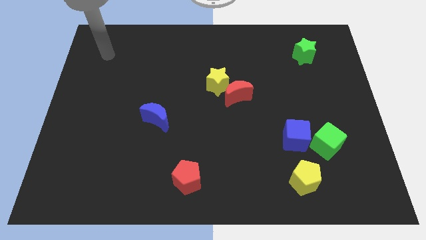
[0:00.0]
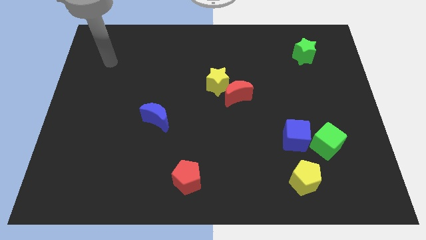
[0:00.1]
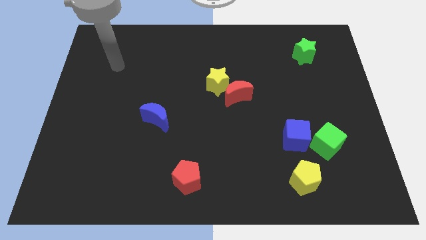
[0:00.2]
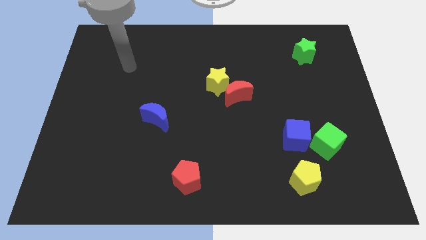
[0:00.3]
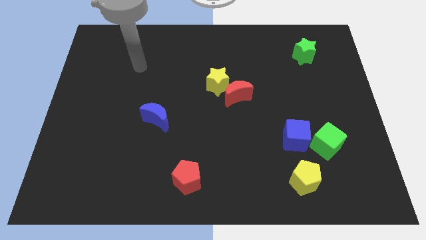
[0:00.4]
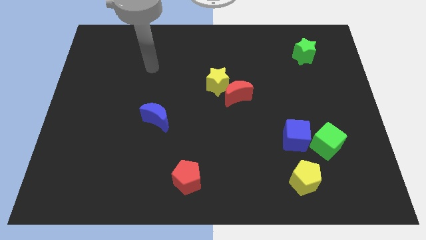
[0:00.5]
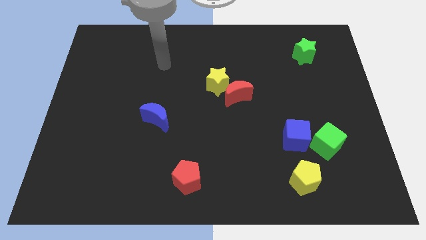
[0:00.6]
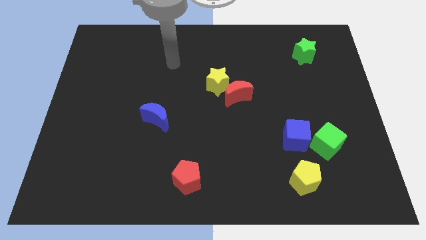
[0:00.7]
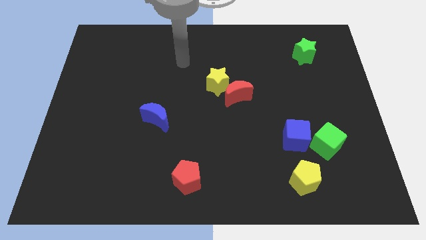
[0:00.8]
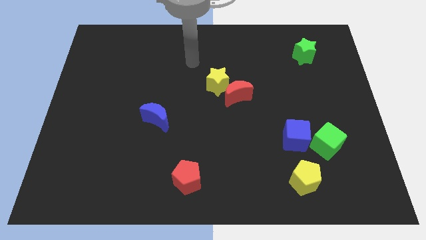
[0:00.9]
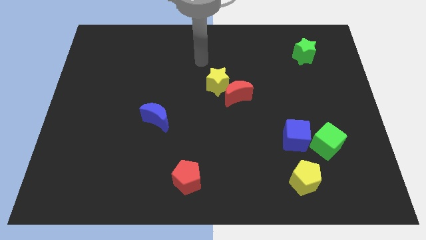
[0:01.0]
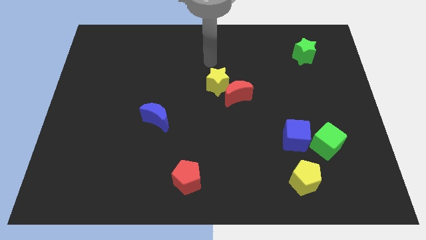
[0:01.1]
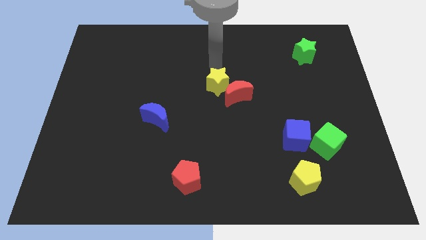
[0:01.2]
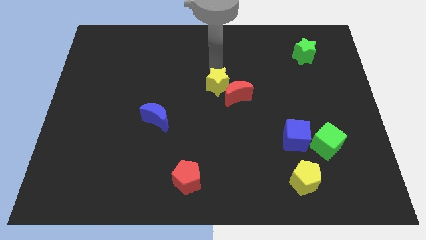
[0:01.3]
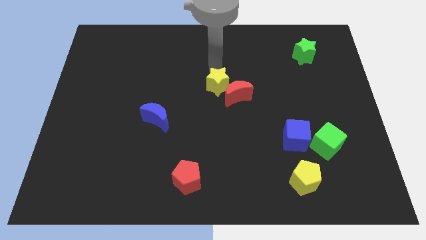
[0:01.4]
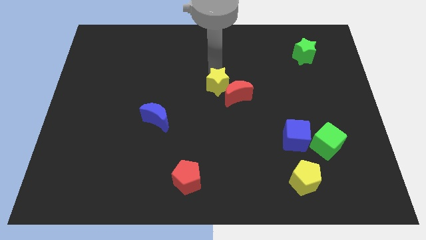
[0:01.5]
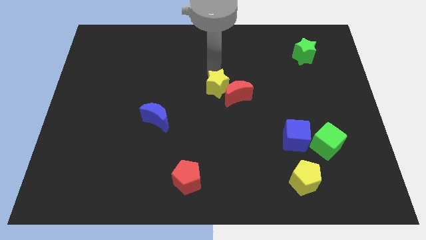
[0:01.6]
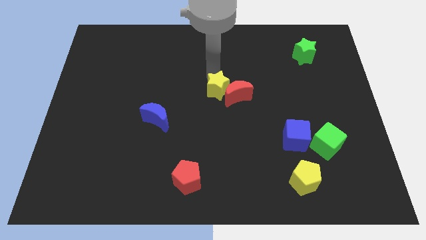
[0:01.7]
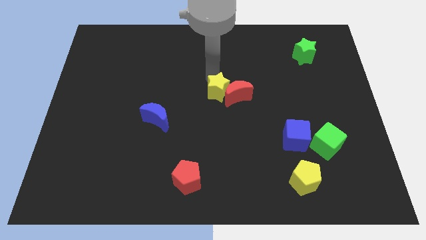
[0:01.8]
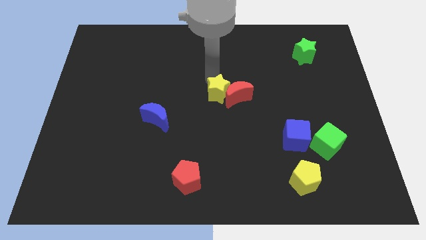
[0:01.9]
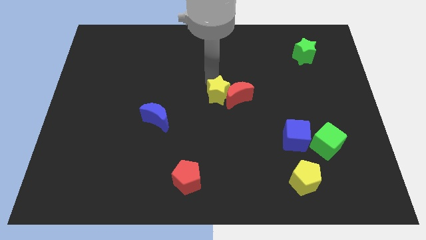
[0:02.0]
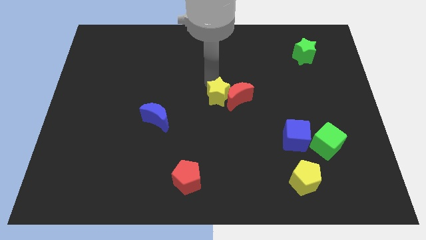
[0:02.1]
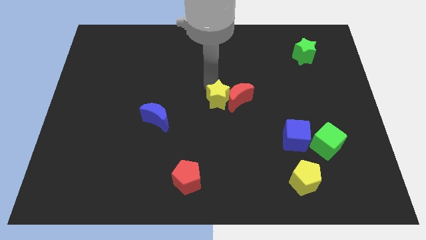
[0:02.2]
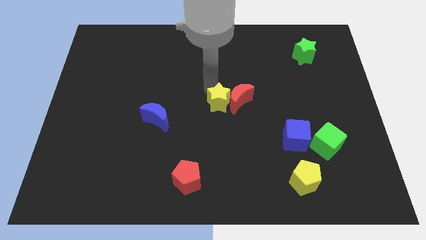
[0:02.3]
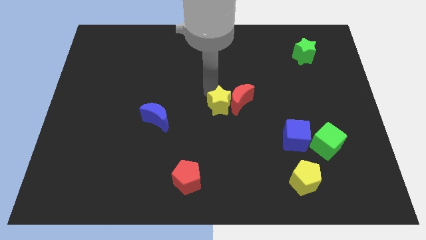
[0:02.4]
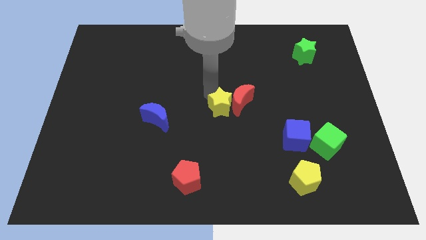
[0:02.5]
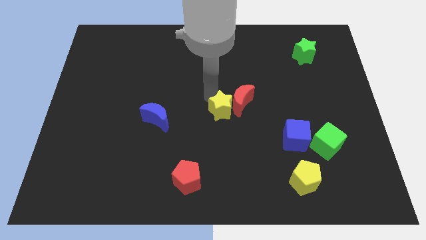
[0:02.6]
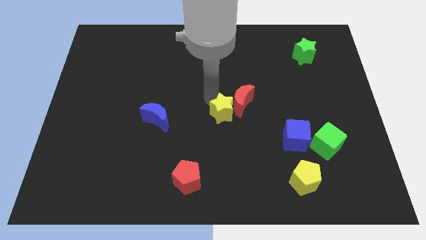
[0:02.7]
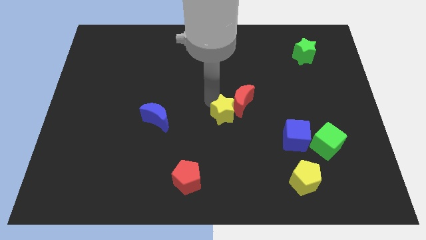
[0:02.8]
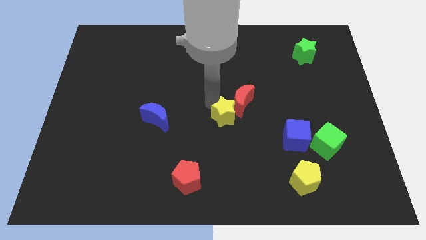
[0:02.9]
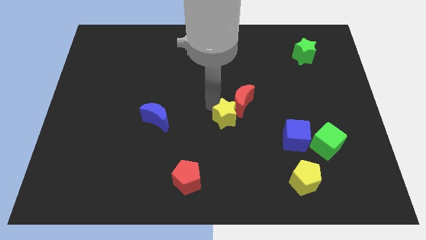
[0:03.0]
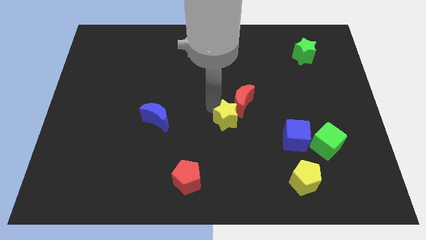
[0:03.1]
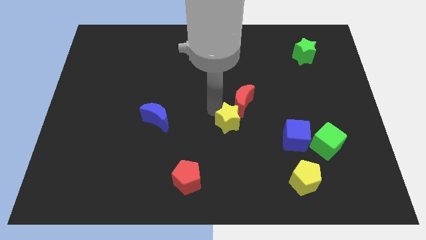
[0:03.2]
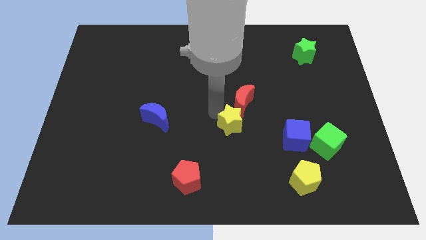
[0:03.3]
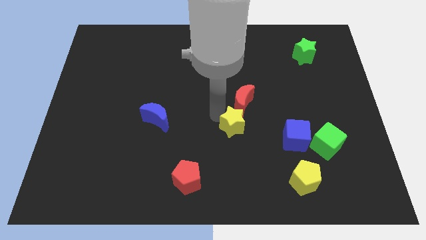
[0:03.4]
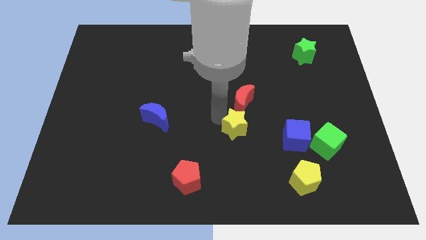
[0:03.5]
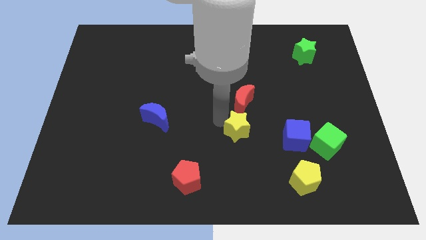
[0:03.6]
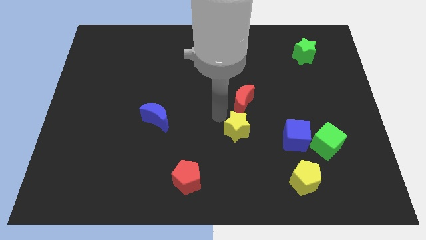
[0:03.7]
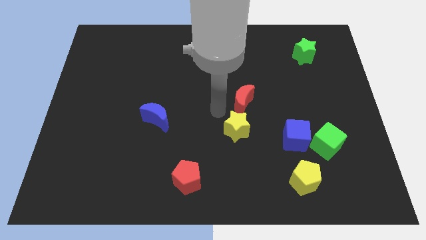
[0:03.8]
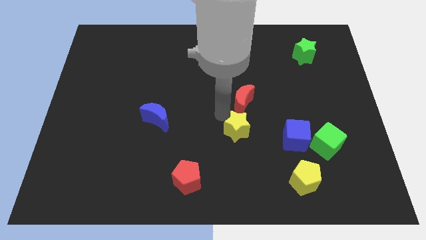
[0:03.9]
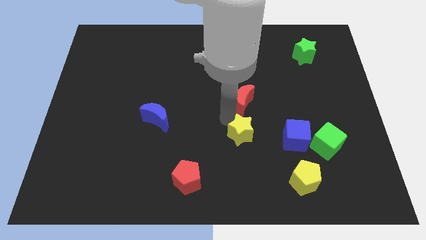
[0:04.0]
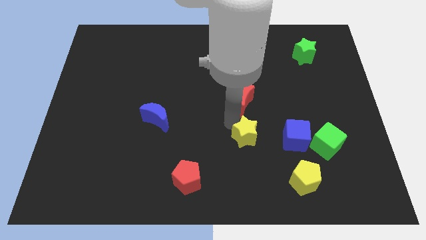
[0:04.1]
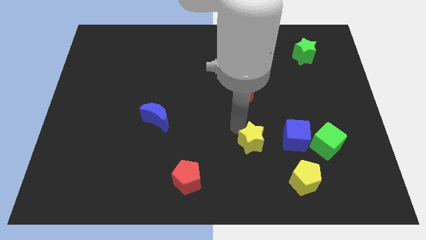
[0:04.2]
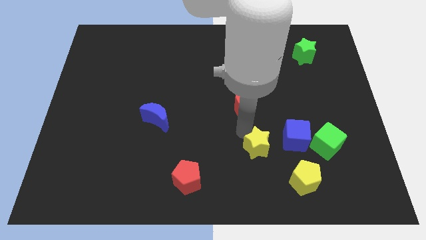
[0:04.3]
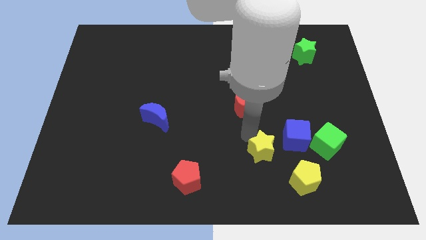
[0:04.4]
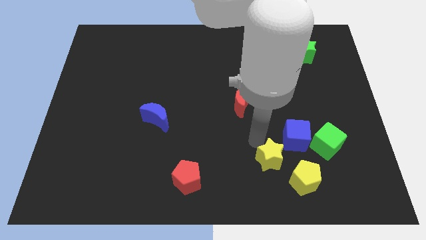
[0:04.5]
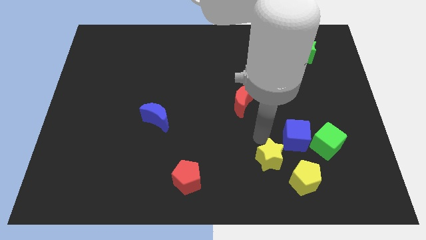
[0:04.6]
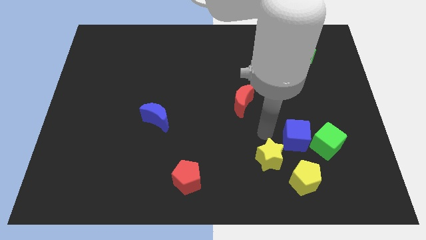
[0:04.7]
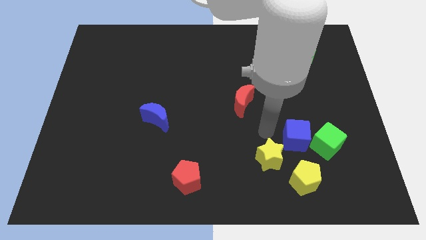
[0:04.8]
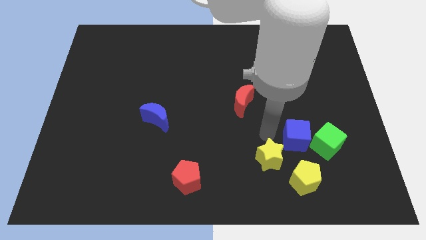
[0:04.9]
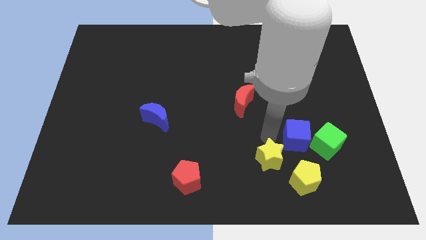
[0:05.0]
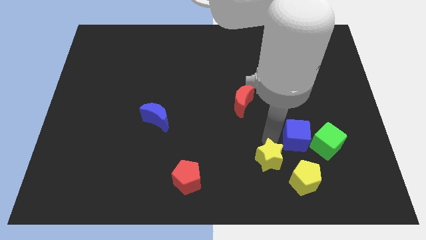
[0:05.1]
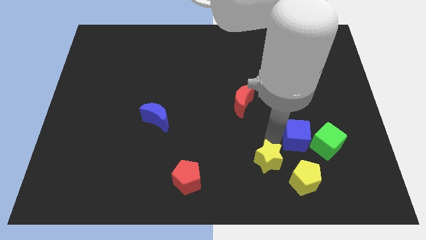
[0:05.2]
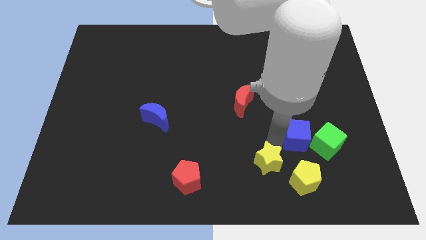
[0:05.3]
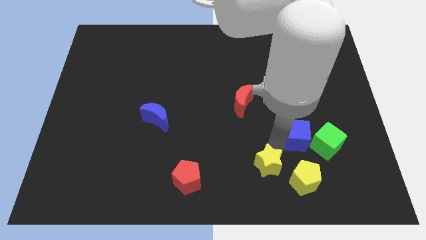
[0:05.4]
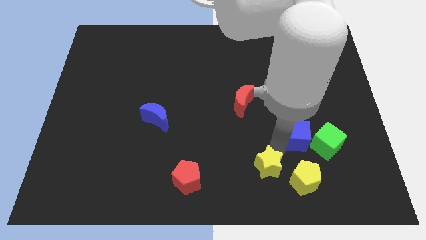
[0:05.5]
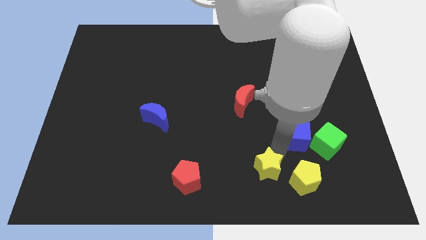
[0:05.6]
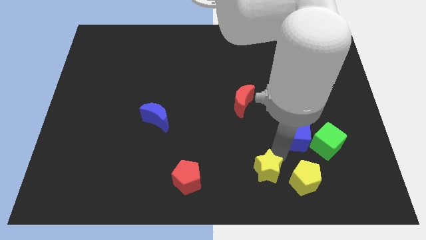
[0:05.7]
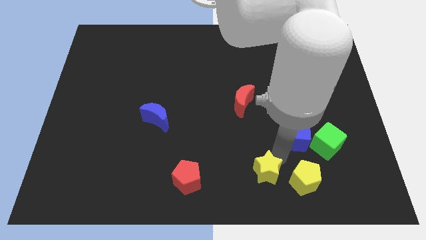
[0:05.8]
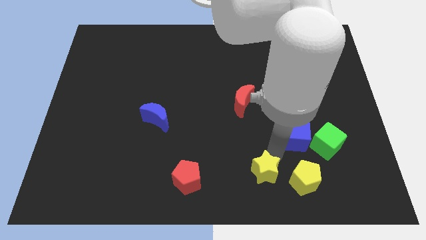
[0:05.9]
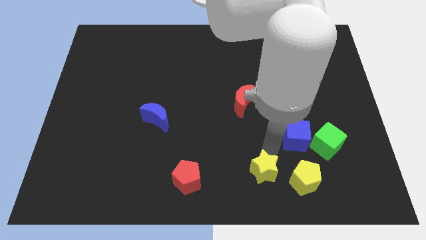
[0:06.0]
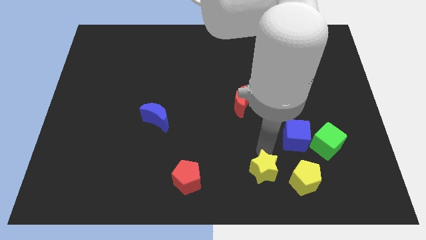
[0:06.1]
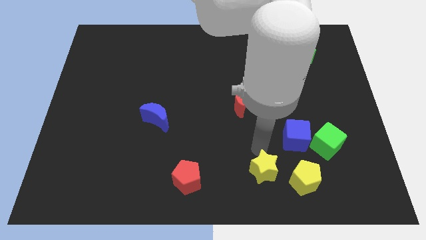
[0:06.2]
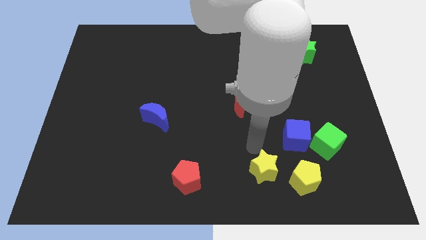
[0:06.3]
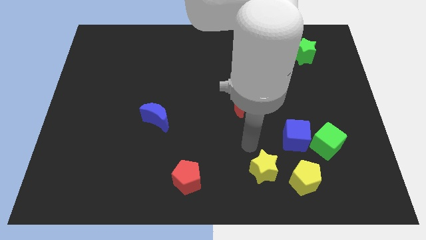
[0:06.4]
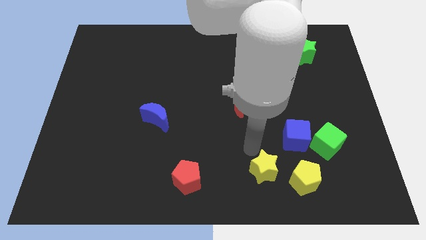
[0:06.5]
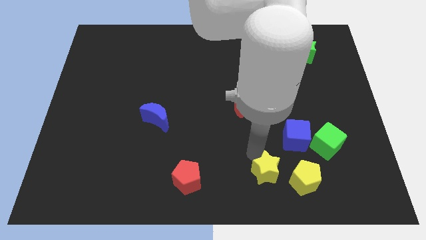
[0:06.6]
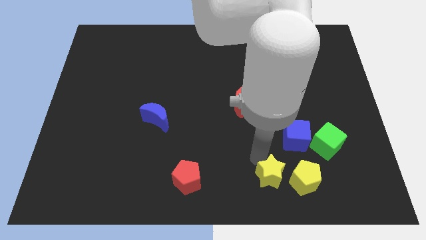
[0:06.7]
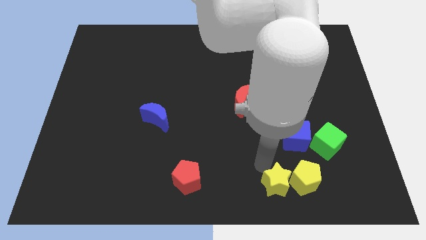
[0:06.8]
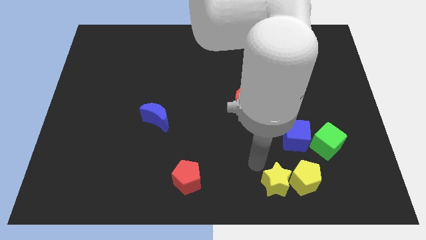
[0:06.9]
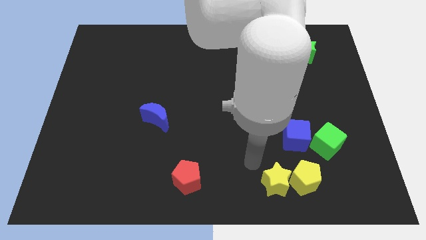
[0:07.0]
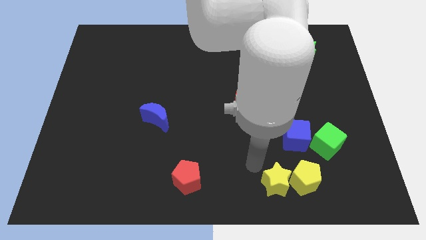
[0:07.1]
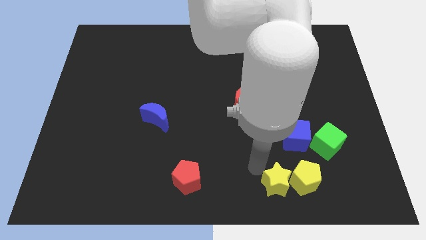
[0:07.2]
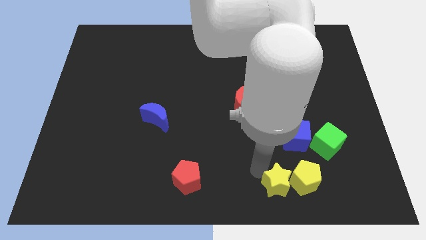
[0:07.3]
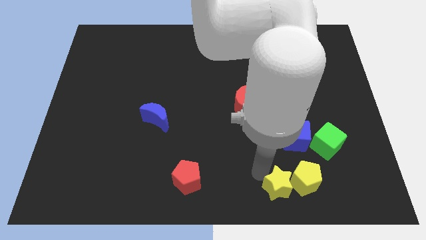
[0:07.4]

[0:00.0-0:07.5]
push the yellow star to the bottom side of the blue cube
